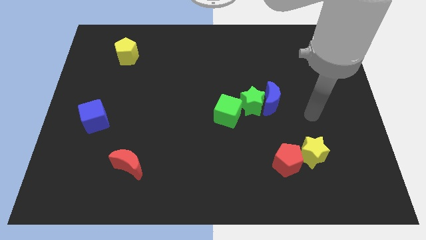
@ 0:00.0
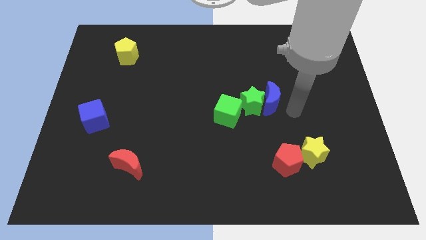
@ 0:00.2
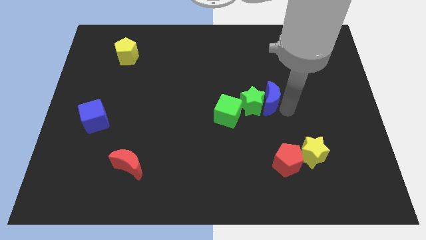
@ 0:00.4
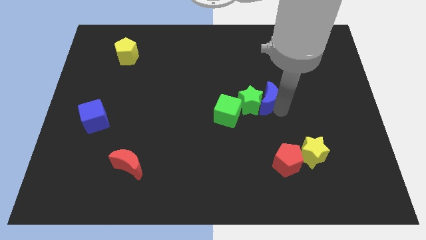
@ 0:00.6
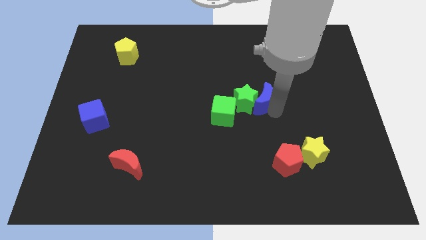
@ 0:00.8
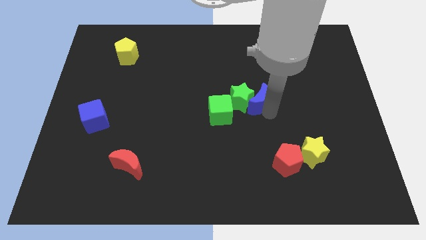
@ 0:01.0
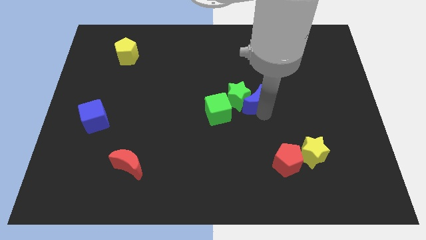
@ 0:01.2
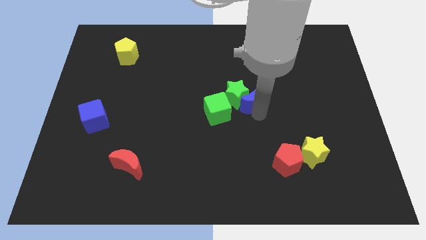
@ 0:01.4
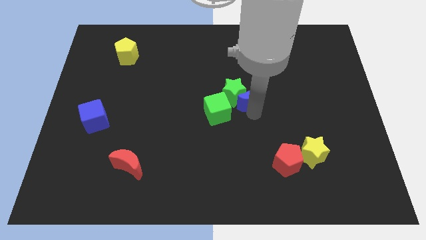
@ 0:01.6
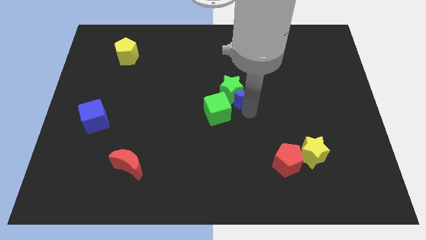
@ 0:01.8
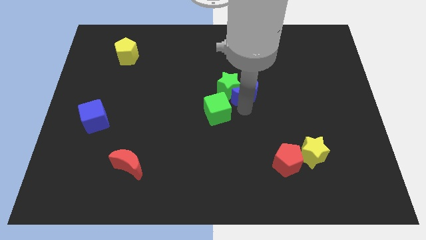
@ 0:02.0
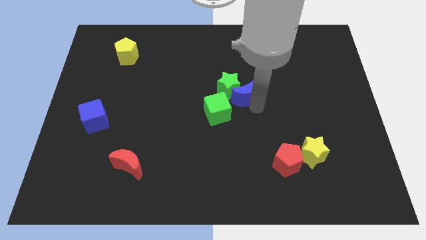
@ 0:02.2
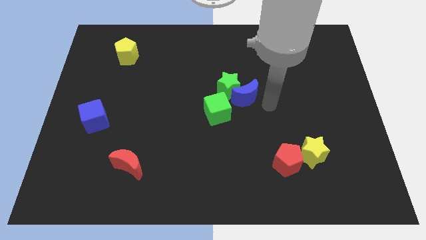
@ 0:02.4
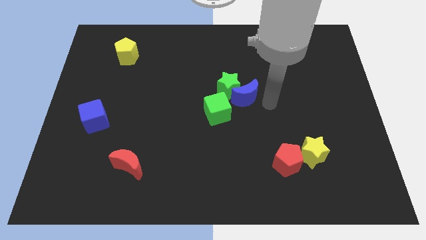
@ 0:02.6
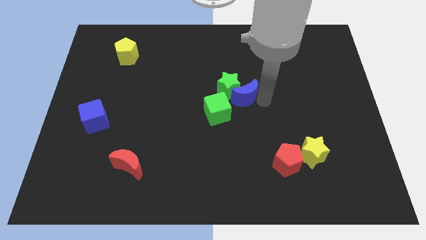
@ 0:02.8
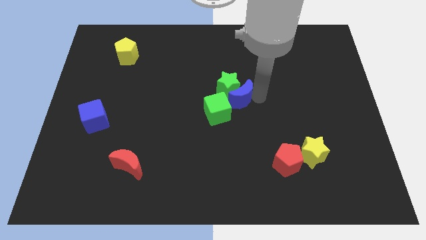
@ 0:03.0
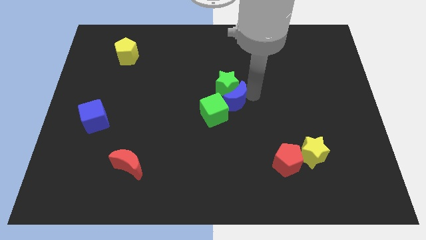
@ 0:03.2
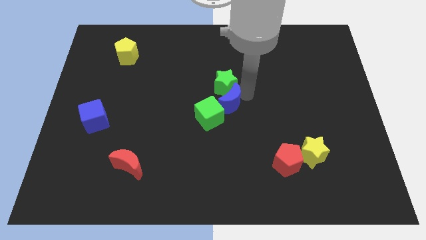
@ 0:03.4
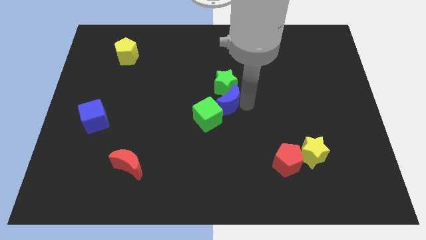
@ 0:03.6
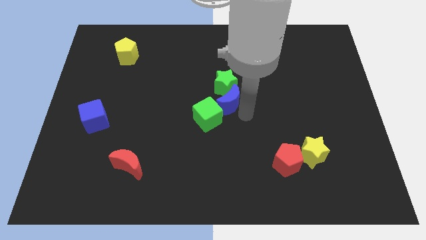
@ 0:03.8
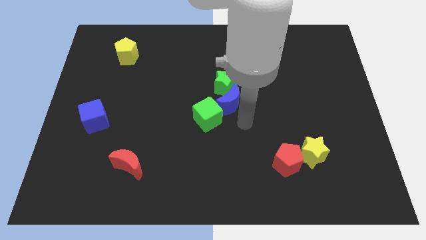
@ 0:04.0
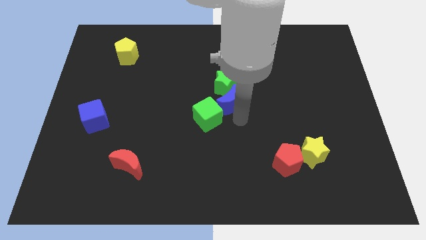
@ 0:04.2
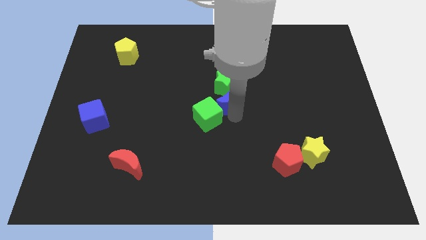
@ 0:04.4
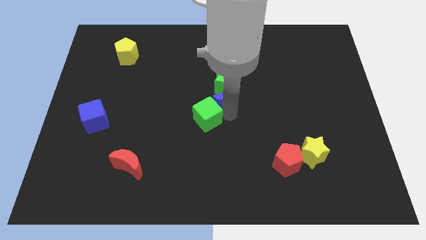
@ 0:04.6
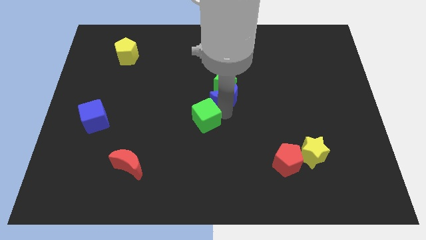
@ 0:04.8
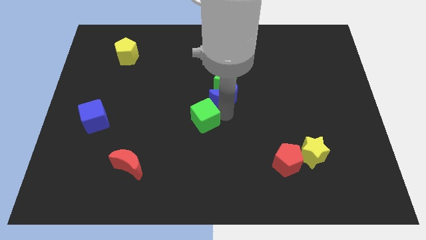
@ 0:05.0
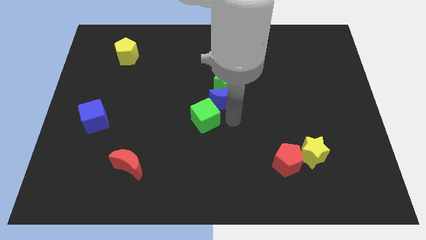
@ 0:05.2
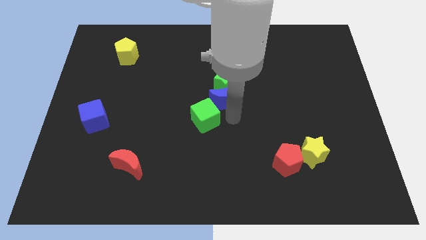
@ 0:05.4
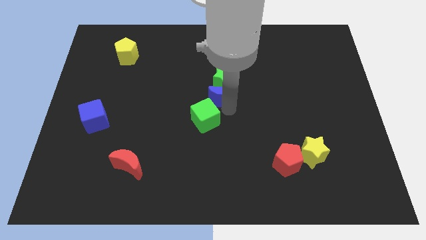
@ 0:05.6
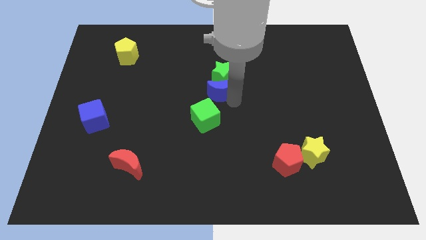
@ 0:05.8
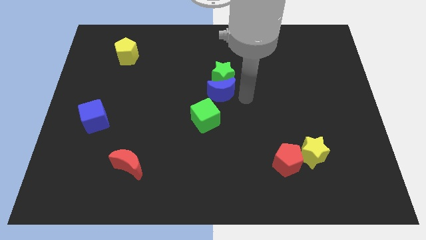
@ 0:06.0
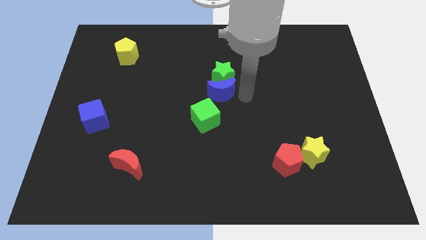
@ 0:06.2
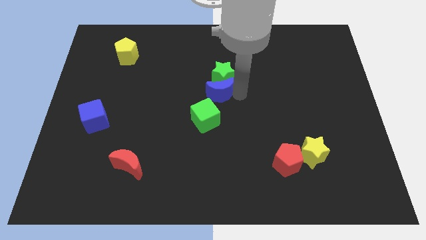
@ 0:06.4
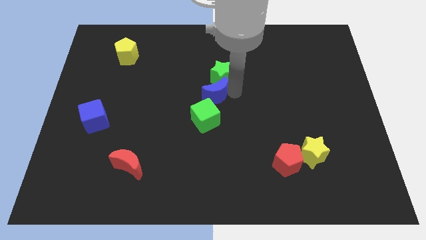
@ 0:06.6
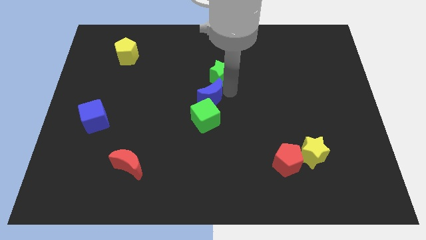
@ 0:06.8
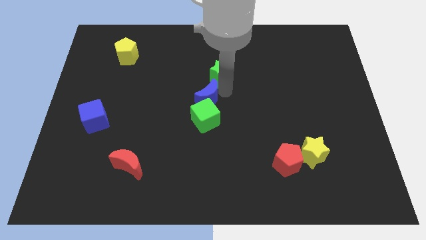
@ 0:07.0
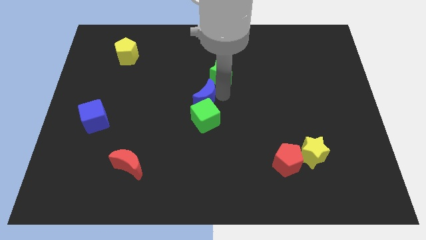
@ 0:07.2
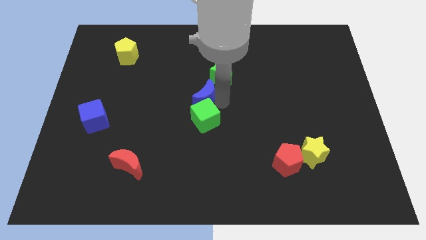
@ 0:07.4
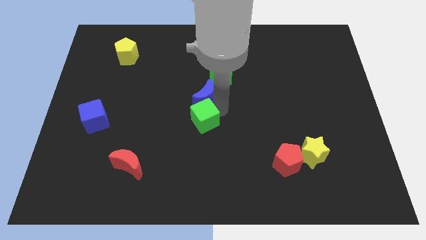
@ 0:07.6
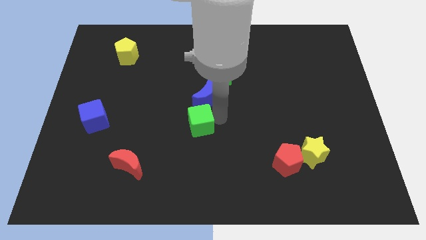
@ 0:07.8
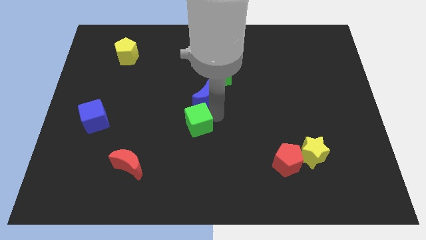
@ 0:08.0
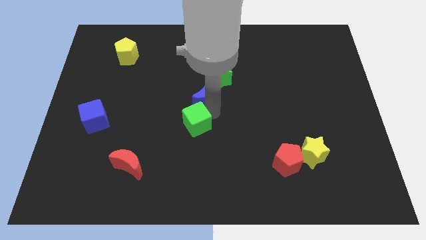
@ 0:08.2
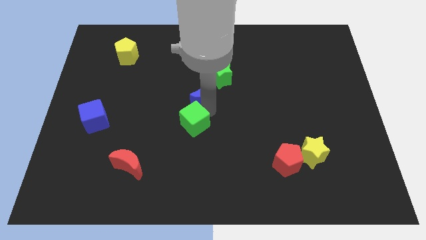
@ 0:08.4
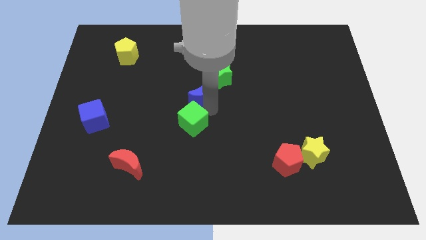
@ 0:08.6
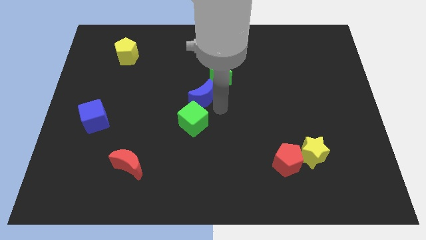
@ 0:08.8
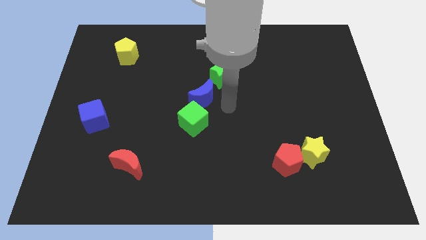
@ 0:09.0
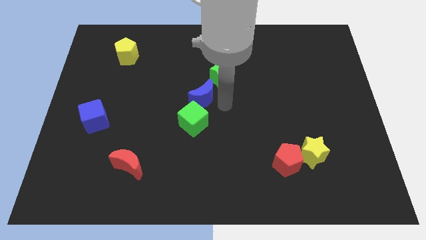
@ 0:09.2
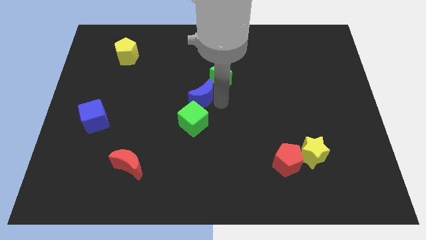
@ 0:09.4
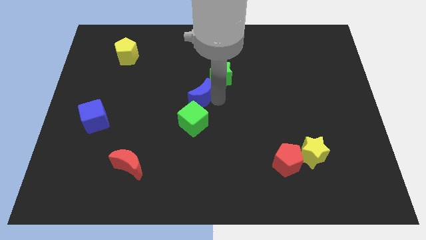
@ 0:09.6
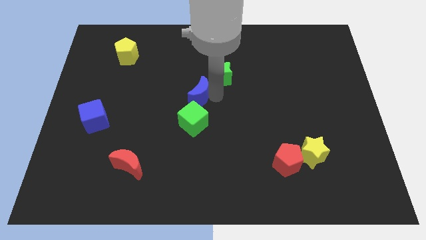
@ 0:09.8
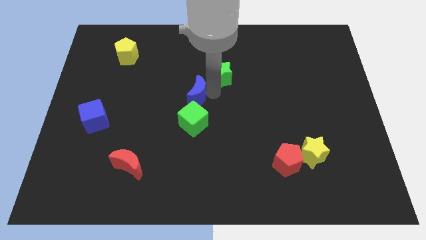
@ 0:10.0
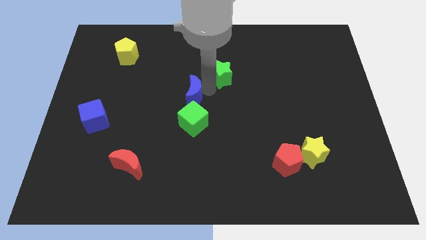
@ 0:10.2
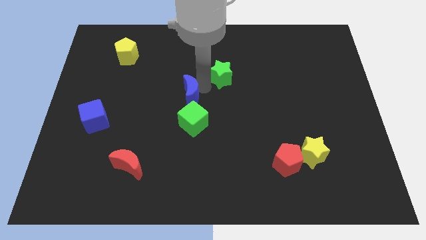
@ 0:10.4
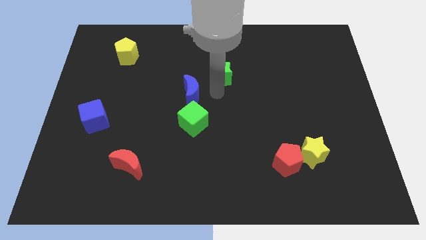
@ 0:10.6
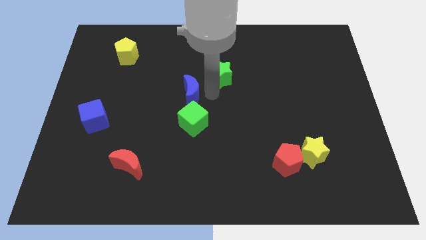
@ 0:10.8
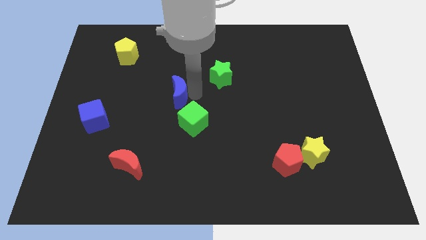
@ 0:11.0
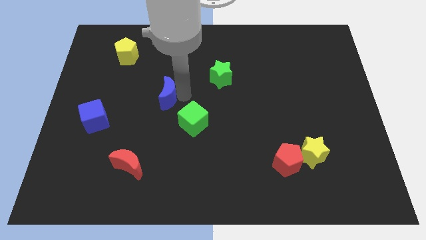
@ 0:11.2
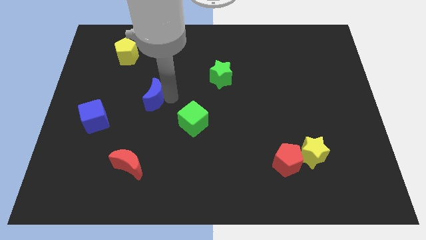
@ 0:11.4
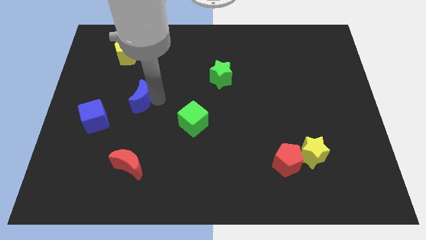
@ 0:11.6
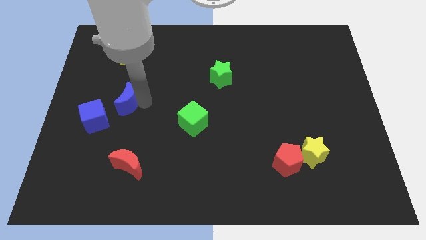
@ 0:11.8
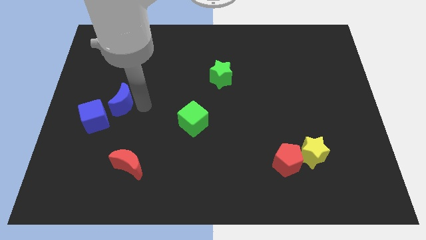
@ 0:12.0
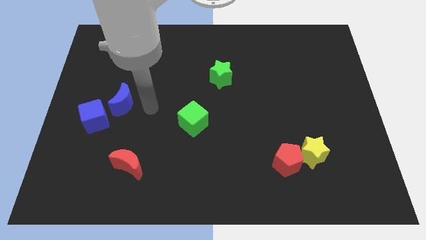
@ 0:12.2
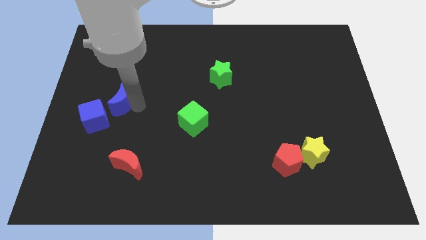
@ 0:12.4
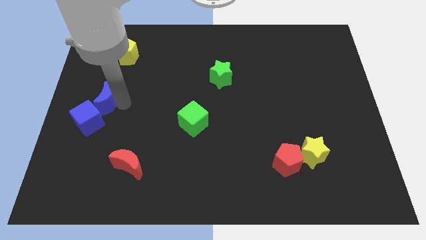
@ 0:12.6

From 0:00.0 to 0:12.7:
put the blue moon to the left side of the board
